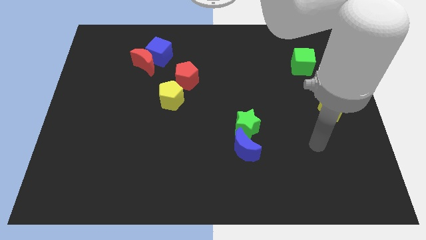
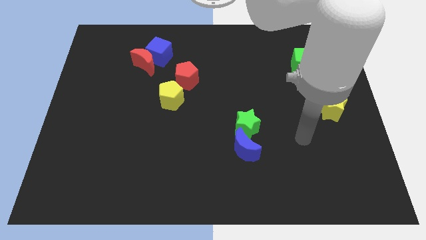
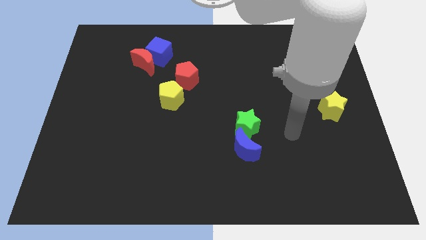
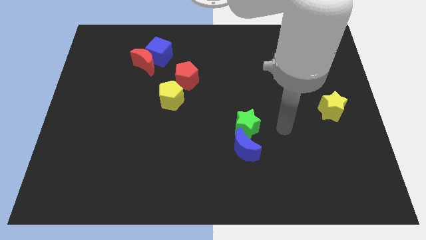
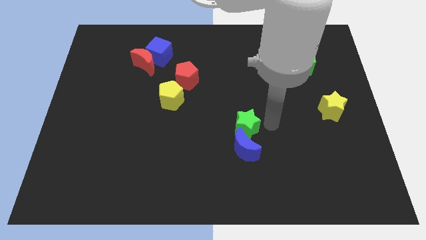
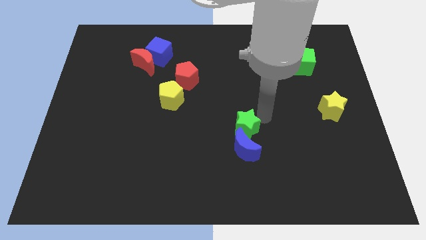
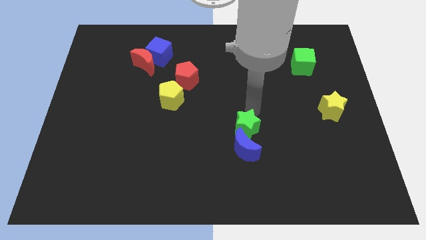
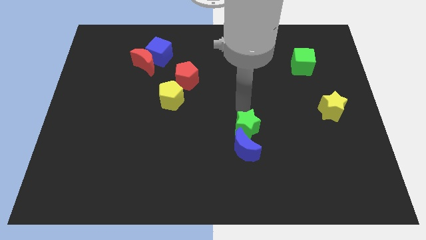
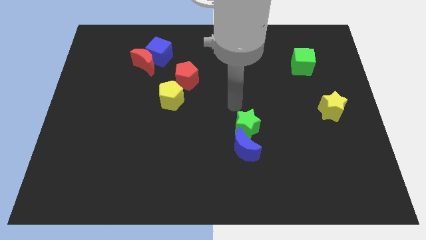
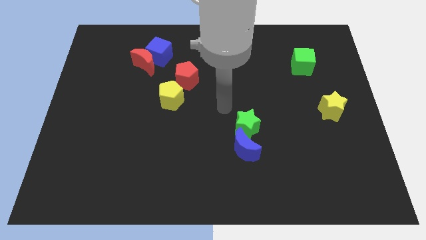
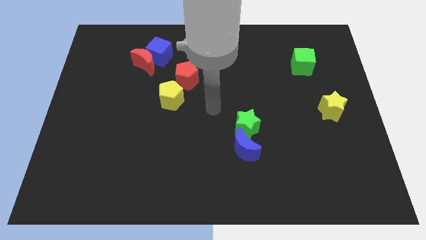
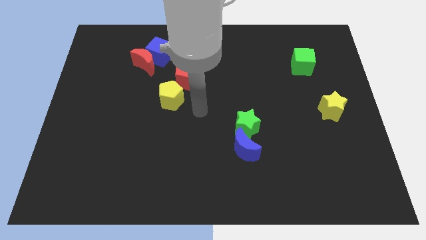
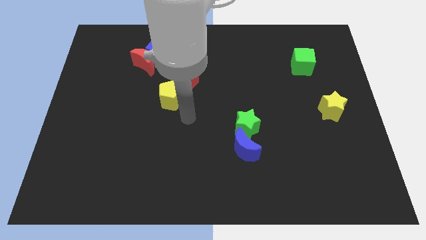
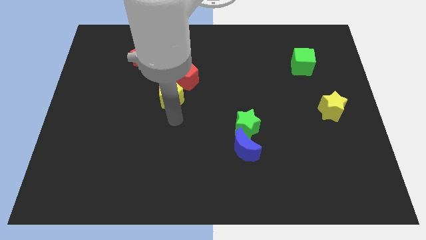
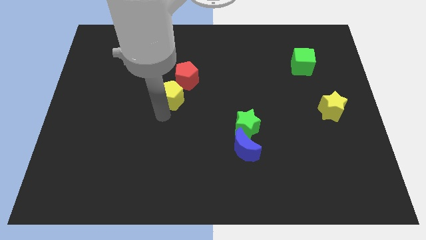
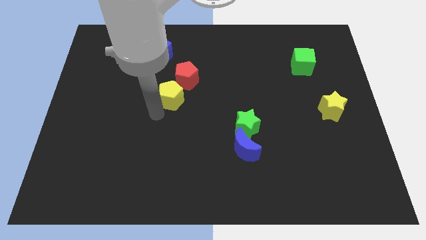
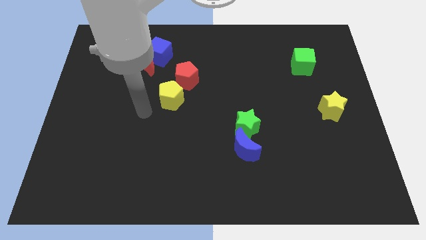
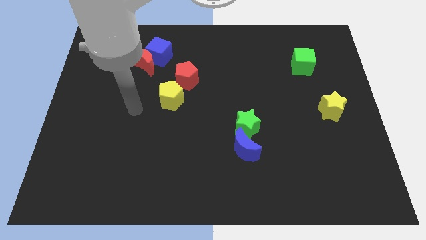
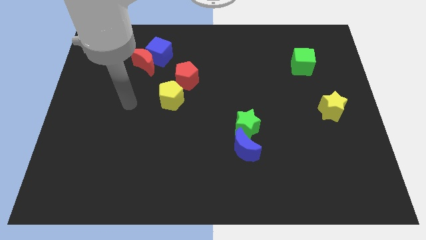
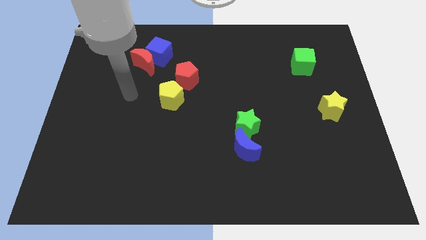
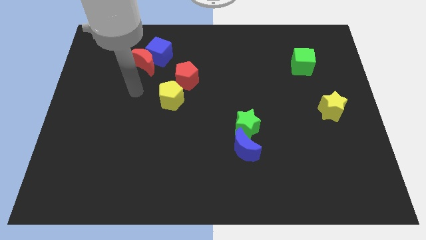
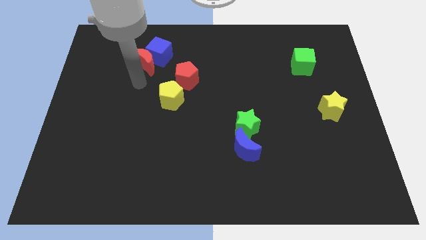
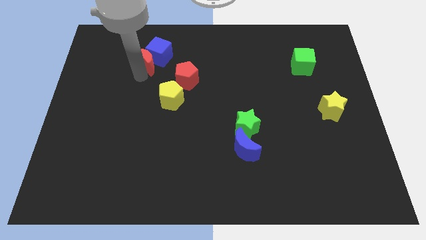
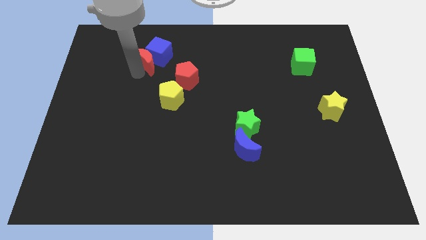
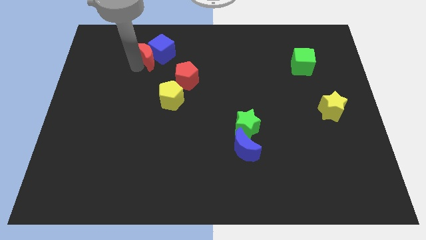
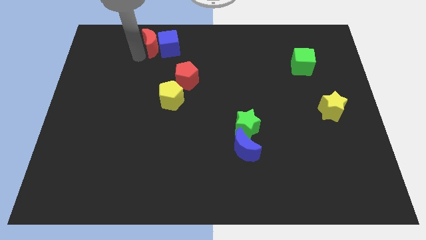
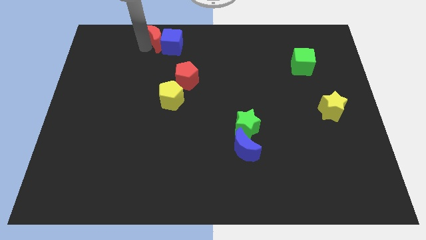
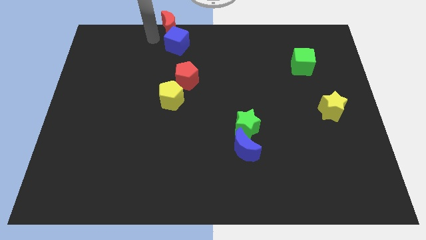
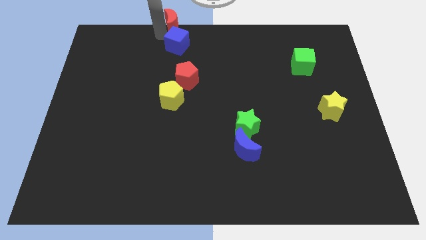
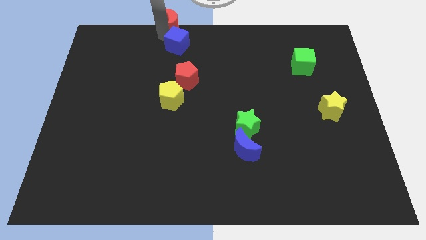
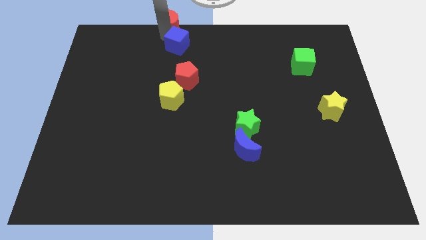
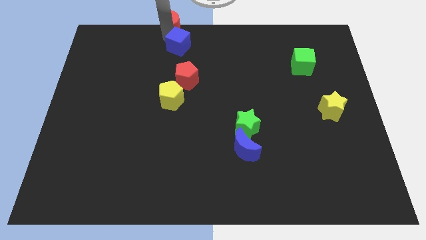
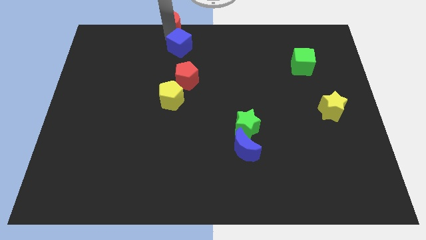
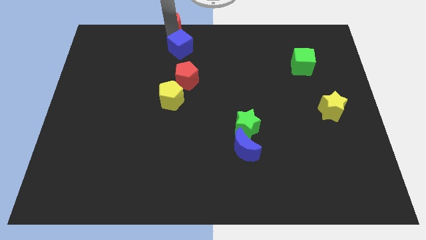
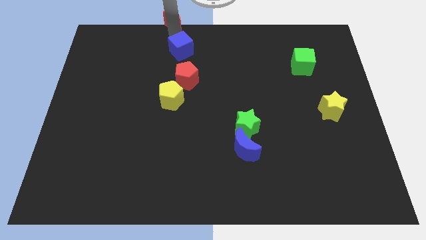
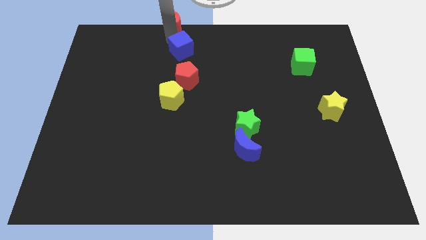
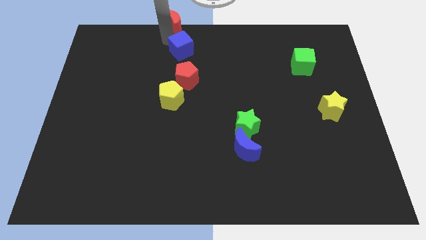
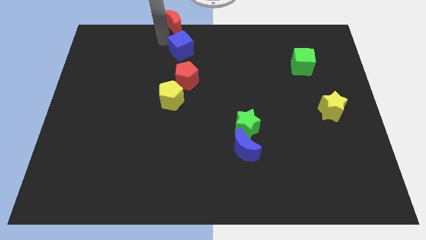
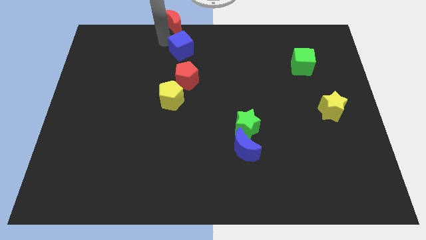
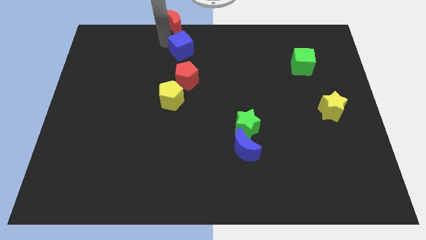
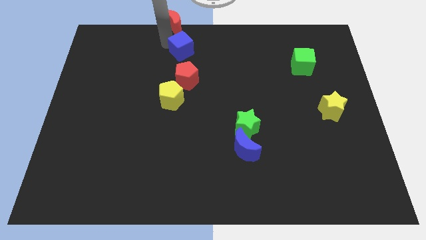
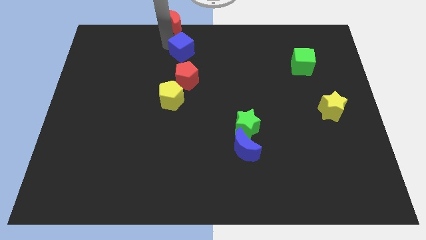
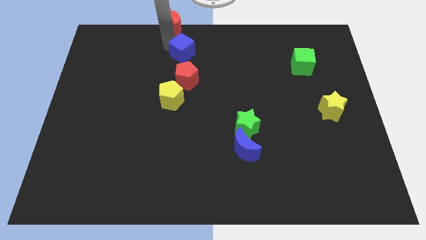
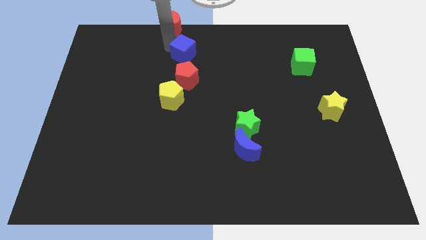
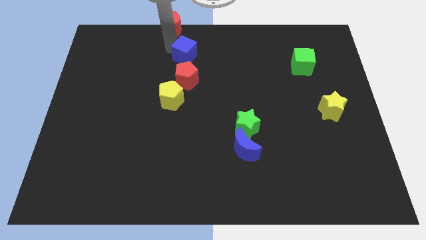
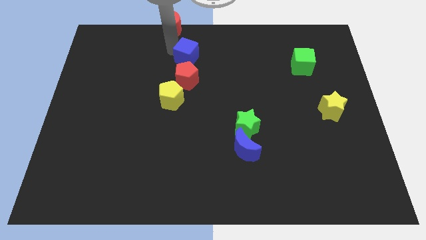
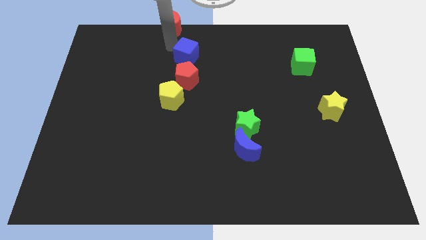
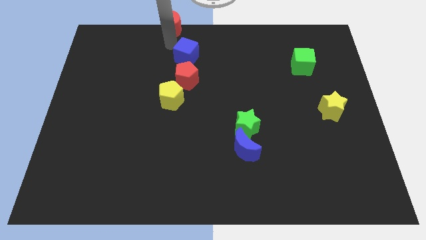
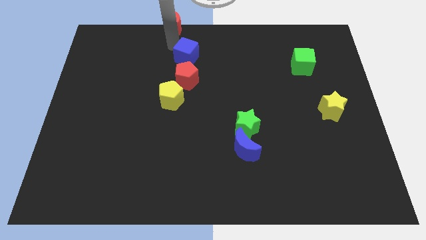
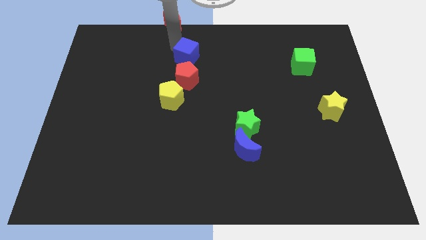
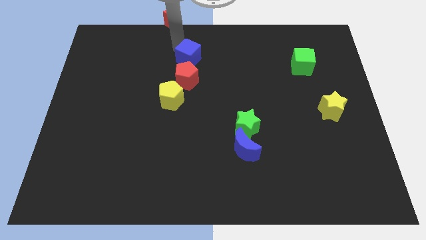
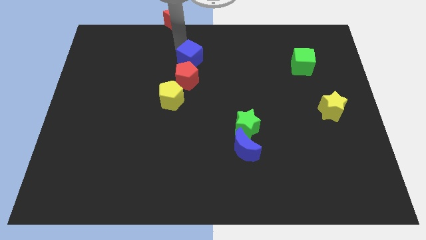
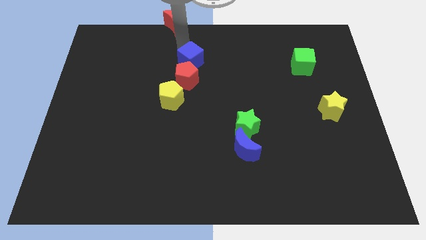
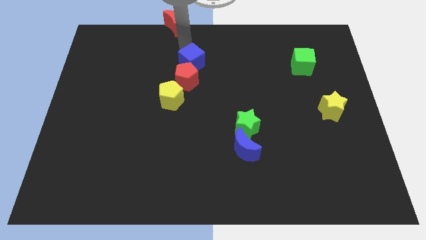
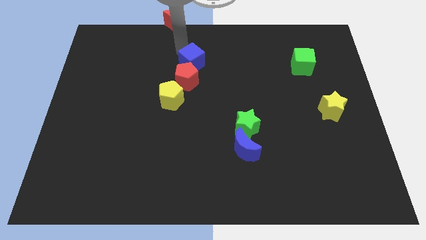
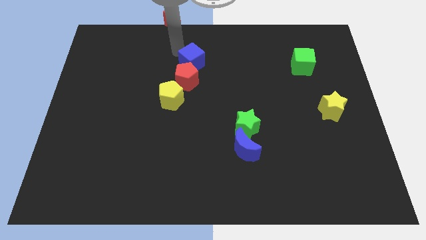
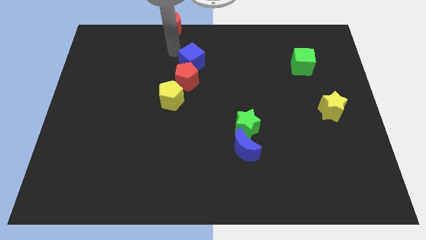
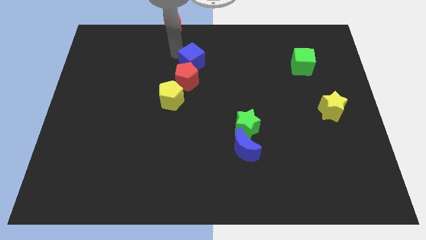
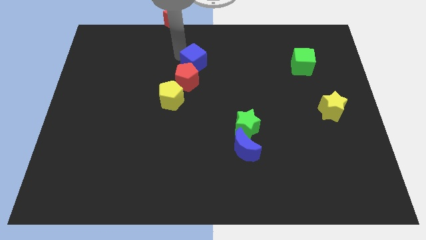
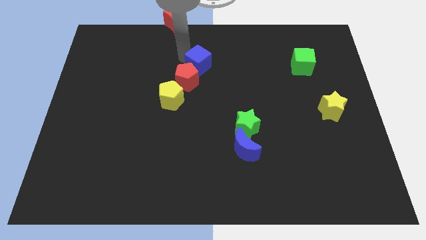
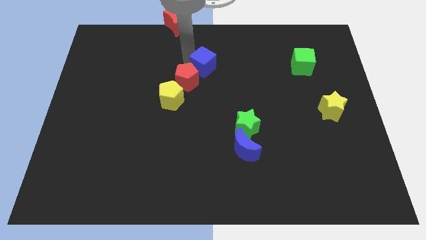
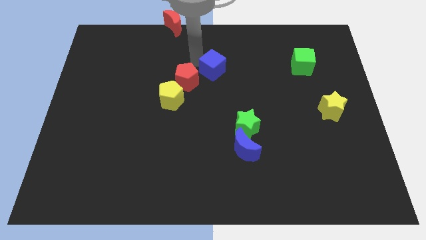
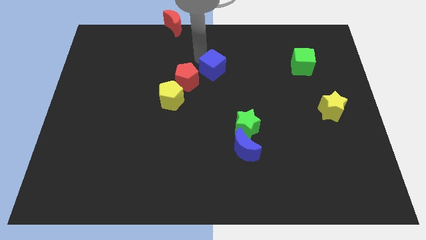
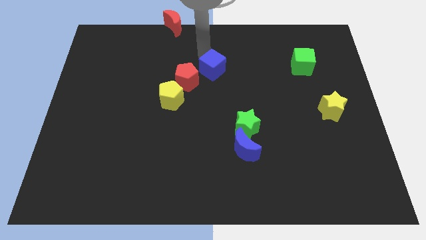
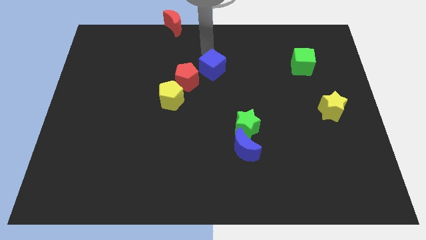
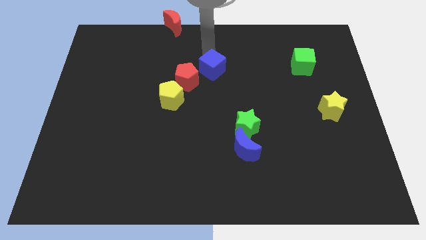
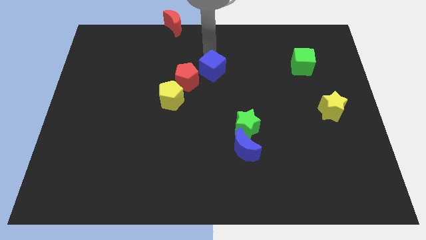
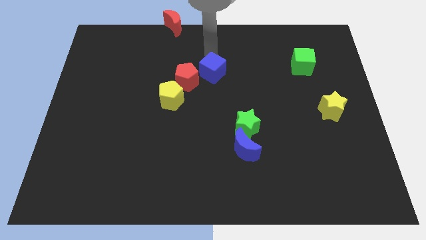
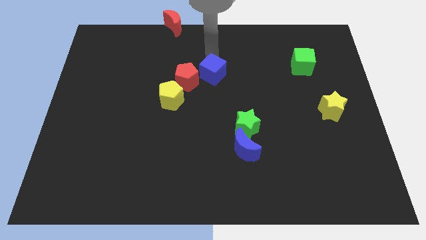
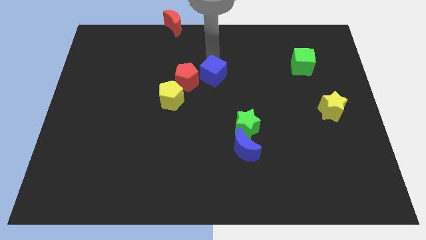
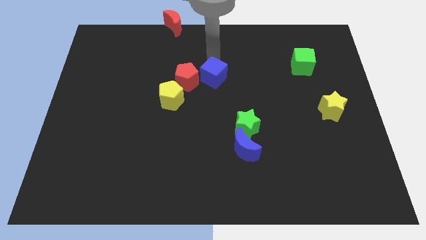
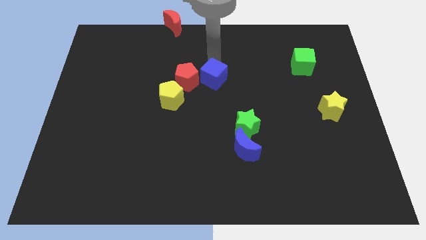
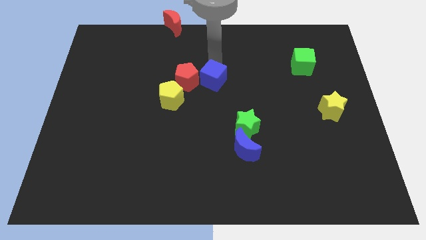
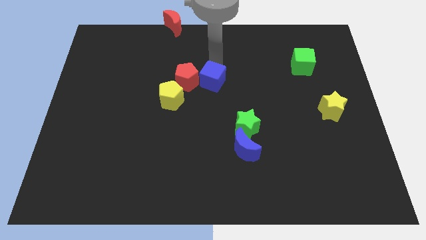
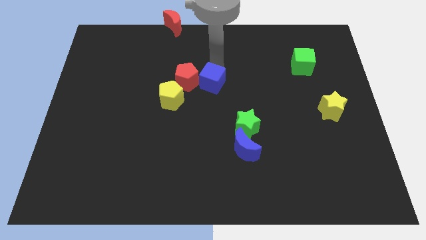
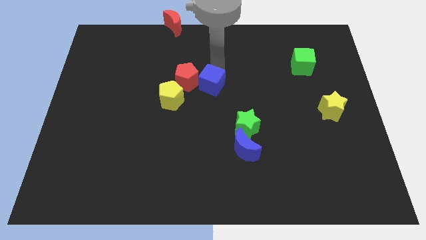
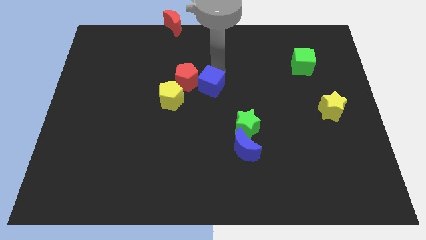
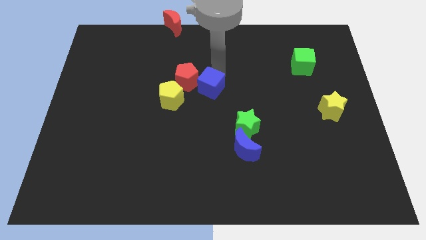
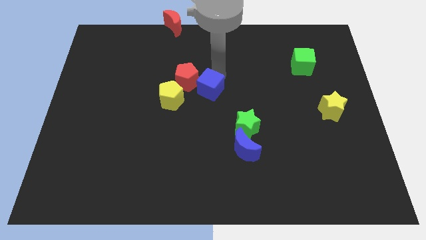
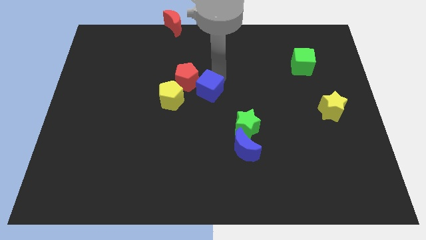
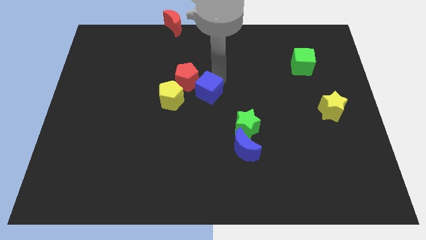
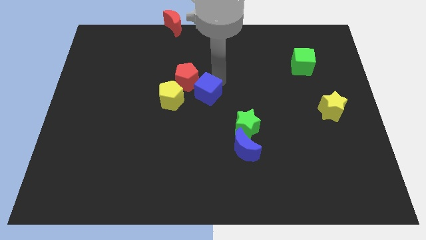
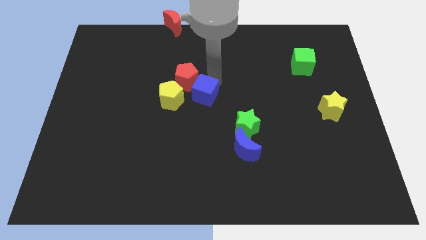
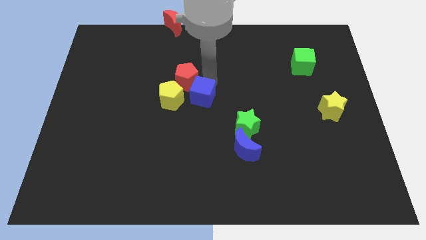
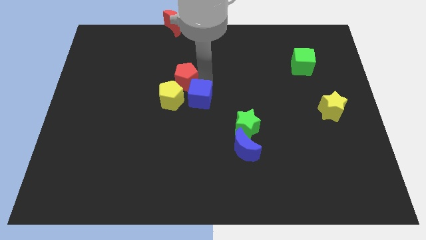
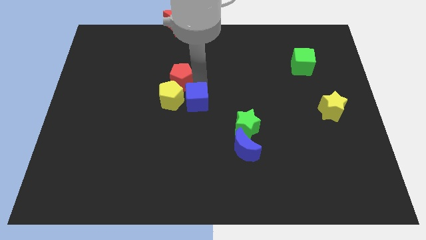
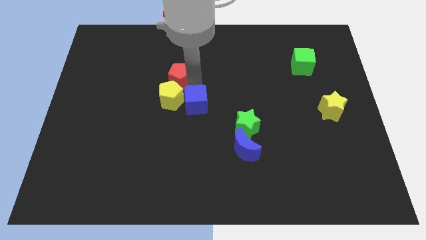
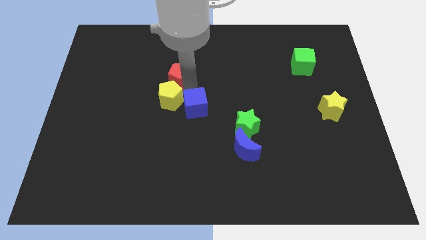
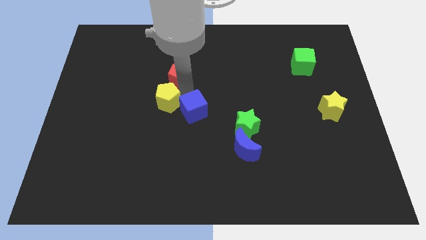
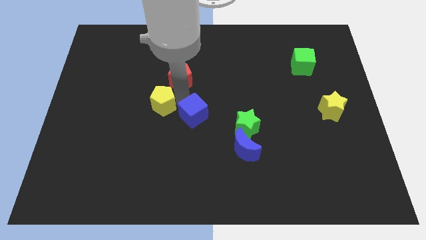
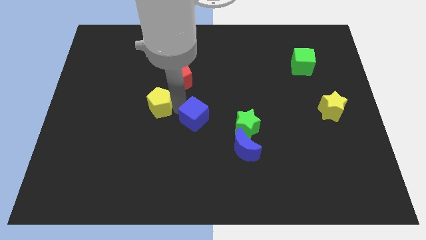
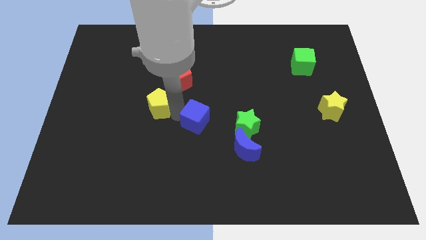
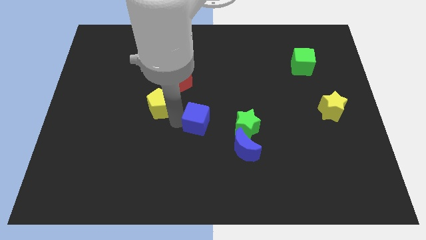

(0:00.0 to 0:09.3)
slide the blue cube to the top left of the blue moon
